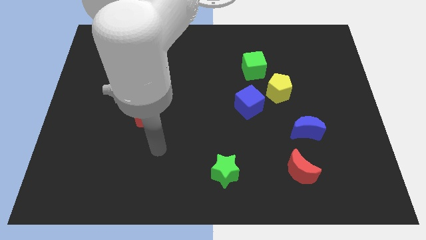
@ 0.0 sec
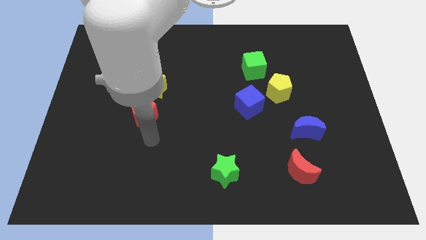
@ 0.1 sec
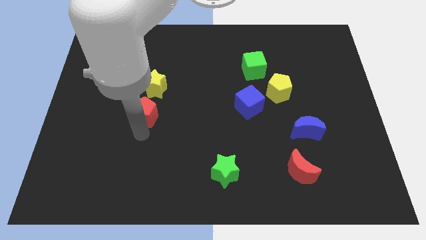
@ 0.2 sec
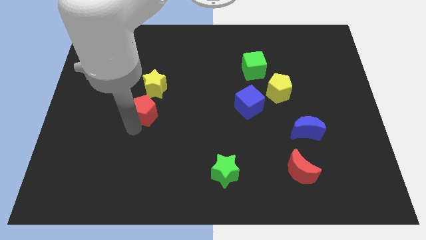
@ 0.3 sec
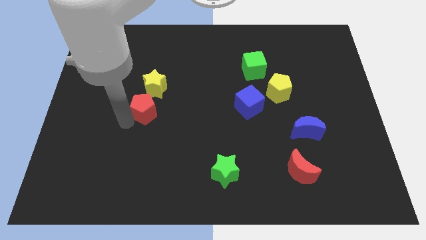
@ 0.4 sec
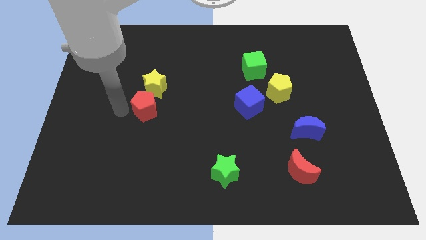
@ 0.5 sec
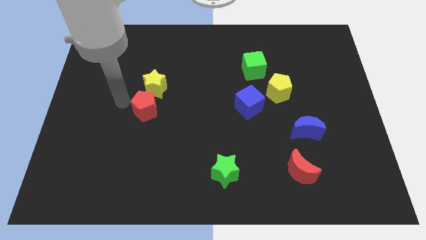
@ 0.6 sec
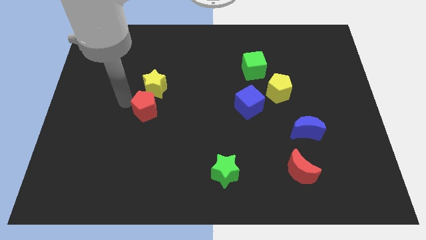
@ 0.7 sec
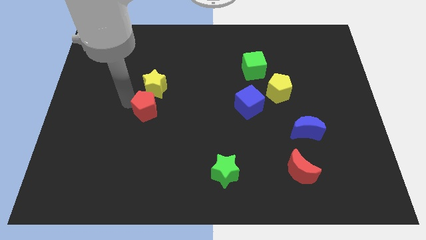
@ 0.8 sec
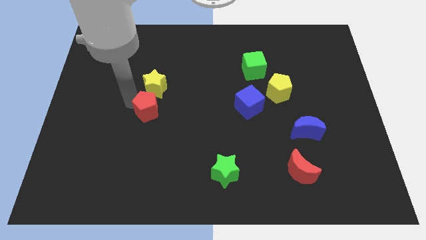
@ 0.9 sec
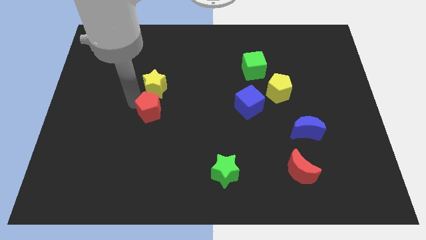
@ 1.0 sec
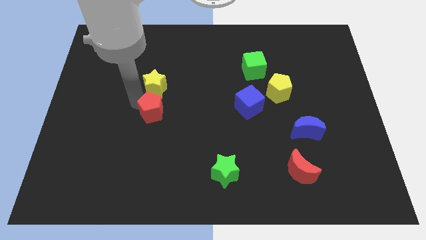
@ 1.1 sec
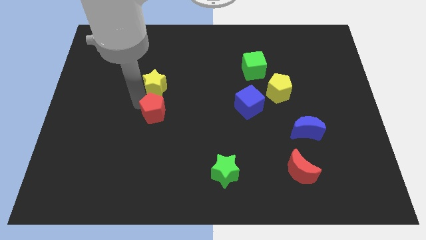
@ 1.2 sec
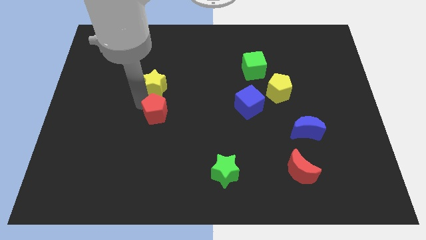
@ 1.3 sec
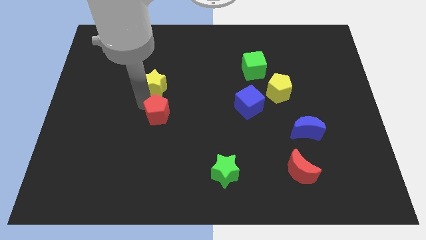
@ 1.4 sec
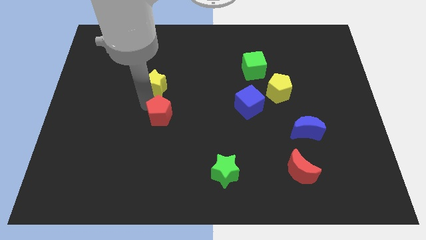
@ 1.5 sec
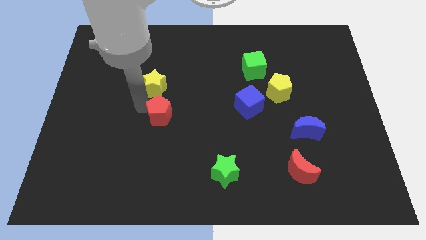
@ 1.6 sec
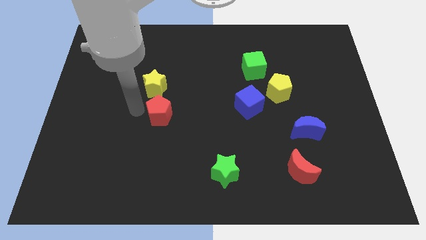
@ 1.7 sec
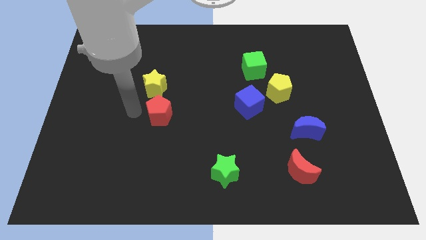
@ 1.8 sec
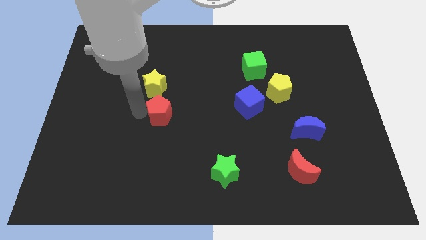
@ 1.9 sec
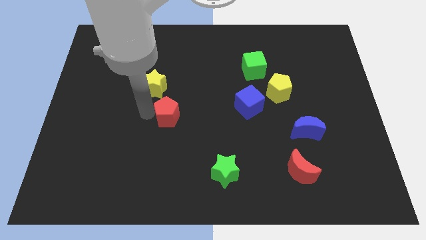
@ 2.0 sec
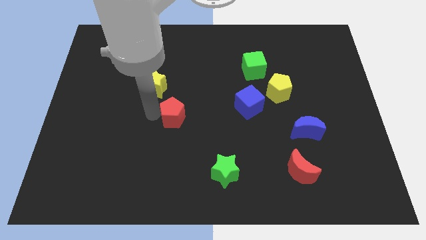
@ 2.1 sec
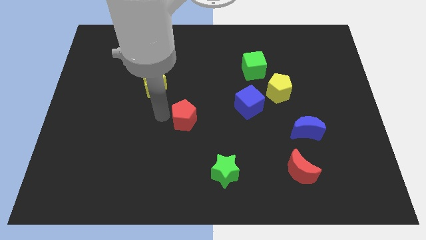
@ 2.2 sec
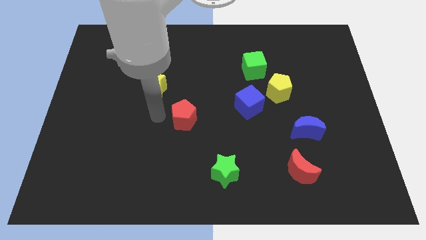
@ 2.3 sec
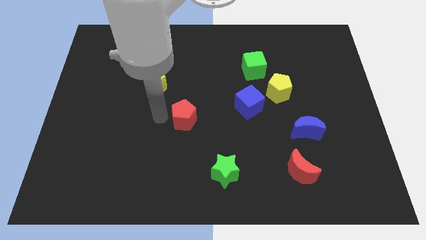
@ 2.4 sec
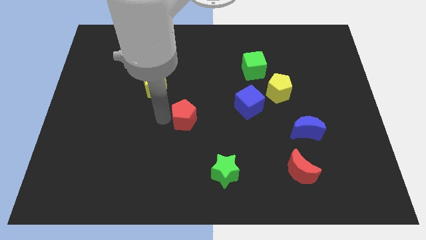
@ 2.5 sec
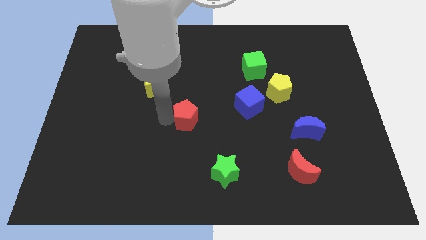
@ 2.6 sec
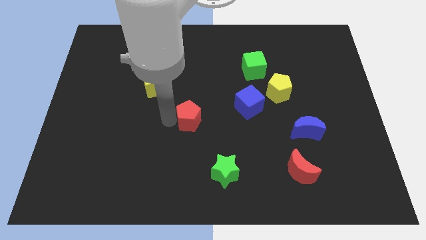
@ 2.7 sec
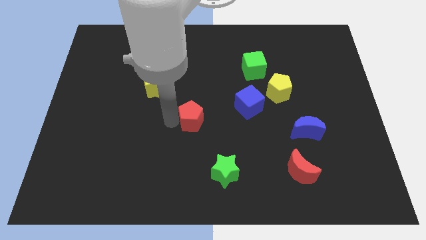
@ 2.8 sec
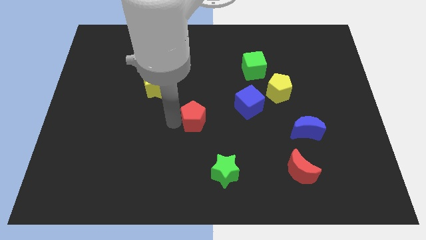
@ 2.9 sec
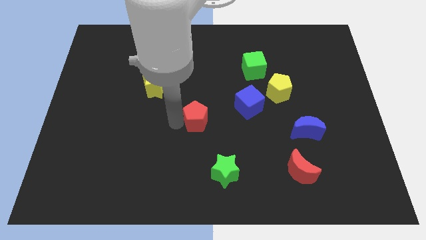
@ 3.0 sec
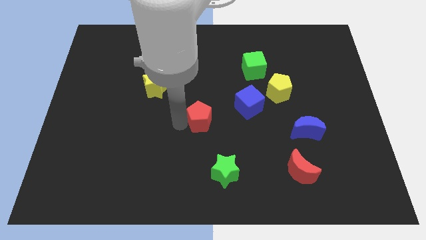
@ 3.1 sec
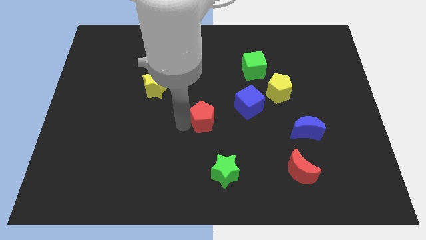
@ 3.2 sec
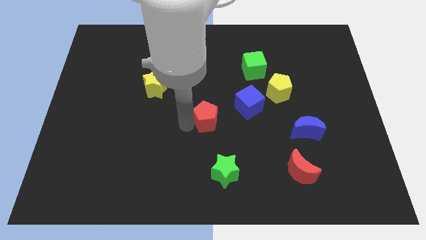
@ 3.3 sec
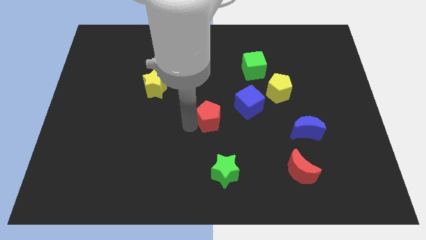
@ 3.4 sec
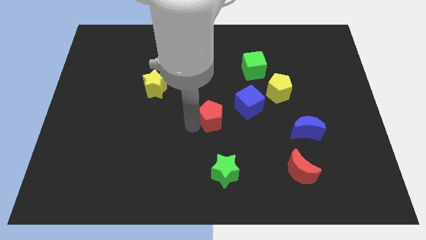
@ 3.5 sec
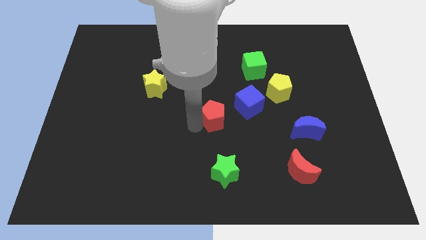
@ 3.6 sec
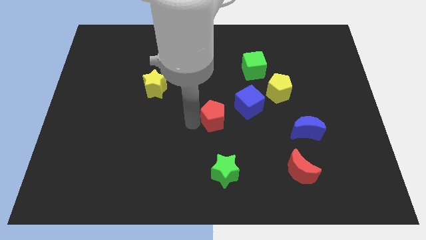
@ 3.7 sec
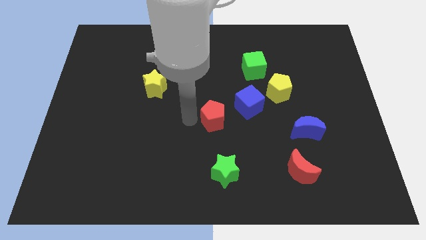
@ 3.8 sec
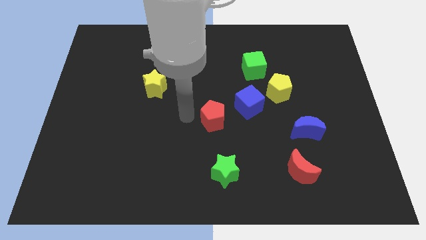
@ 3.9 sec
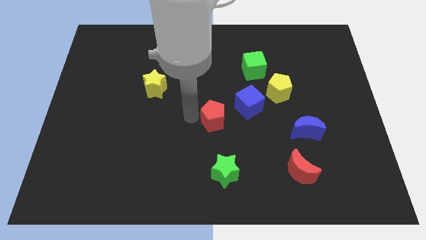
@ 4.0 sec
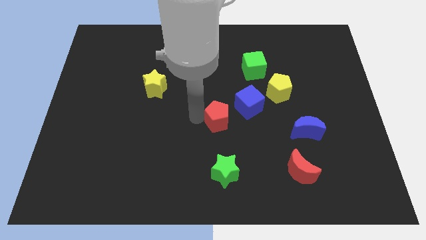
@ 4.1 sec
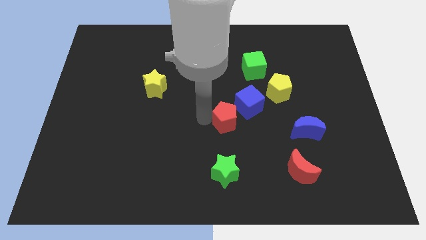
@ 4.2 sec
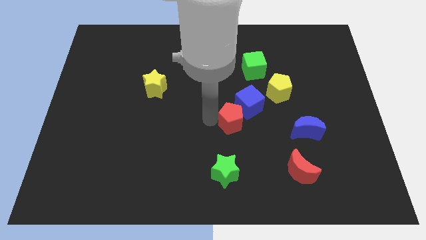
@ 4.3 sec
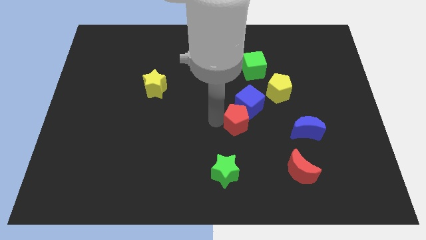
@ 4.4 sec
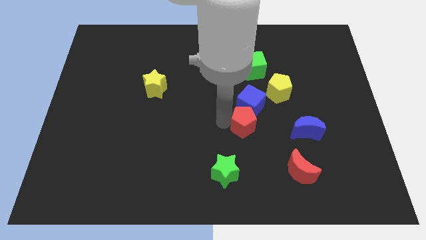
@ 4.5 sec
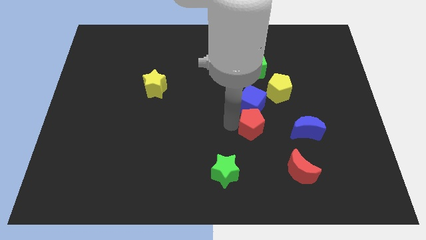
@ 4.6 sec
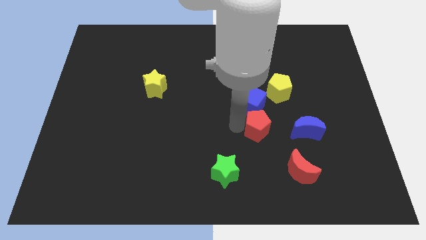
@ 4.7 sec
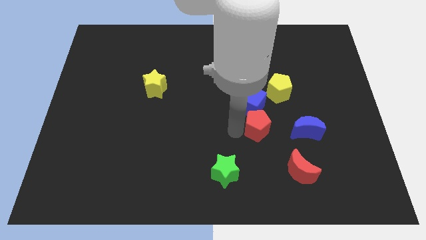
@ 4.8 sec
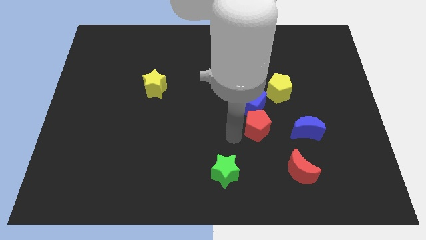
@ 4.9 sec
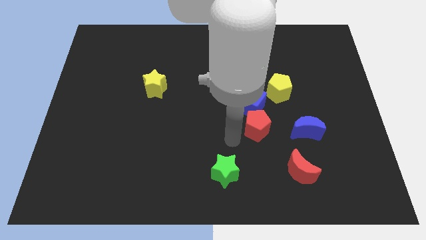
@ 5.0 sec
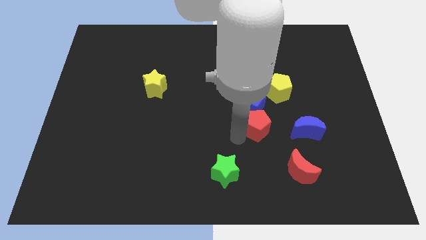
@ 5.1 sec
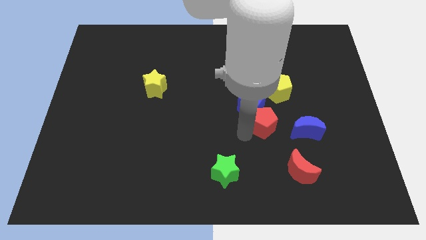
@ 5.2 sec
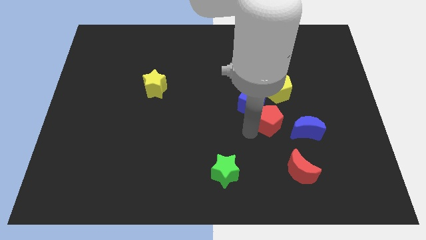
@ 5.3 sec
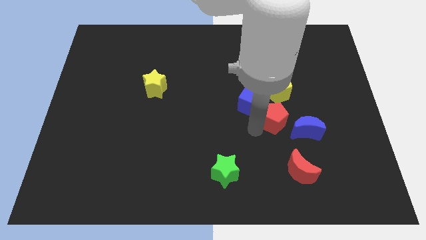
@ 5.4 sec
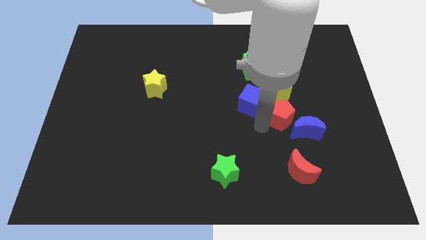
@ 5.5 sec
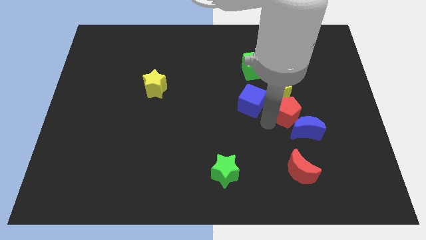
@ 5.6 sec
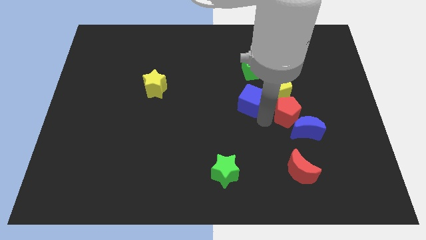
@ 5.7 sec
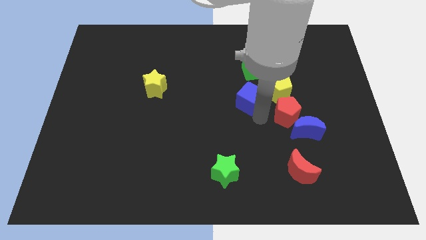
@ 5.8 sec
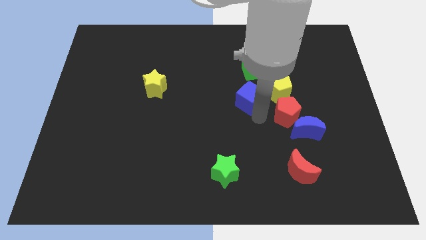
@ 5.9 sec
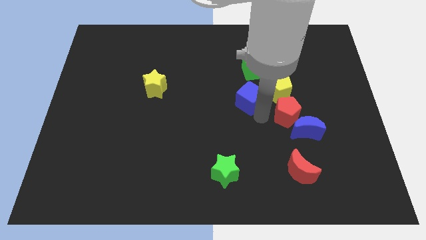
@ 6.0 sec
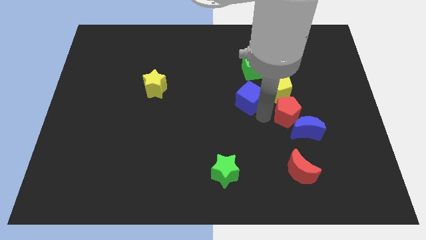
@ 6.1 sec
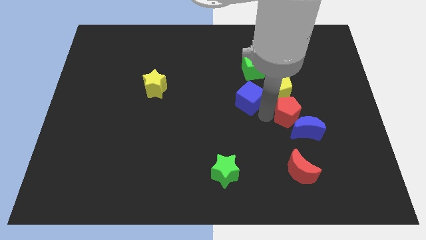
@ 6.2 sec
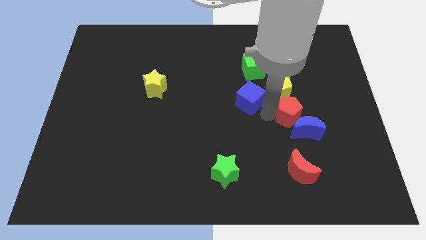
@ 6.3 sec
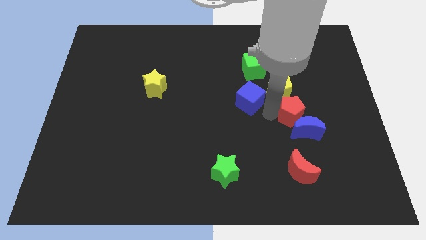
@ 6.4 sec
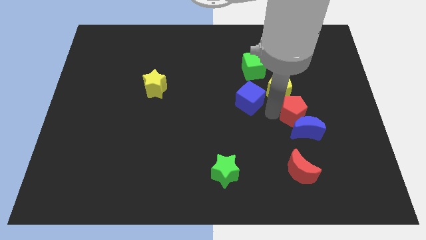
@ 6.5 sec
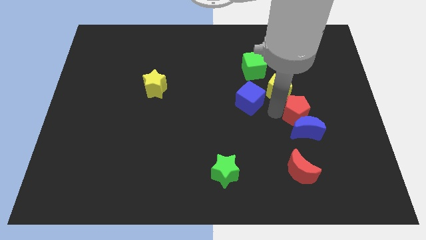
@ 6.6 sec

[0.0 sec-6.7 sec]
slide the red pentagon to the top right of the blue moon

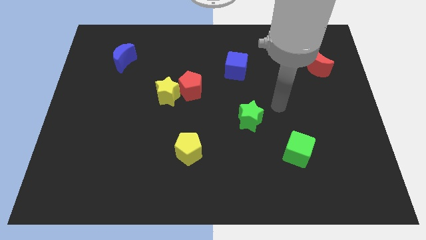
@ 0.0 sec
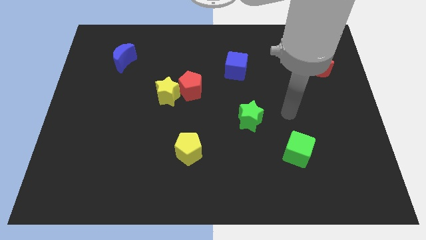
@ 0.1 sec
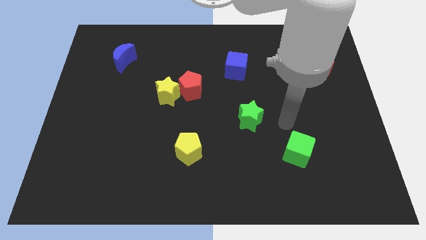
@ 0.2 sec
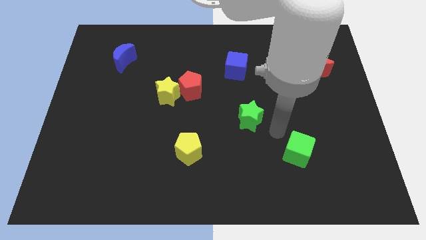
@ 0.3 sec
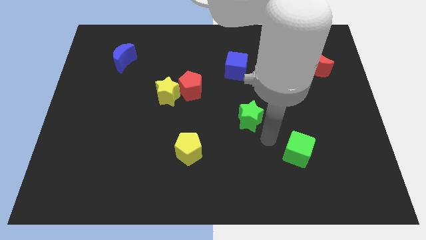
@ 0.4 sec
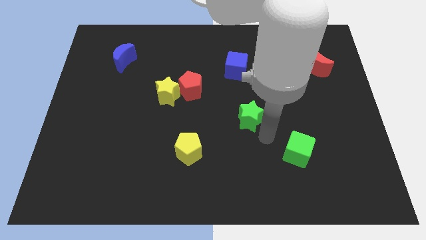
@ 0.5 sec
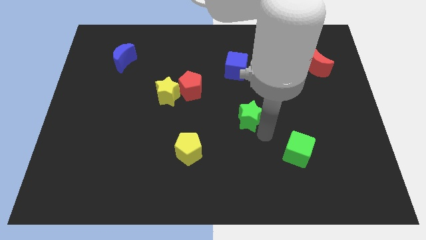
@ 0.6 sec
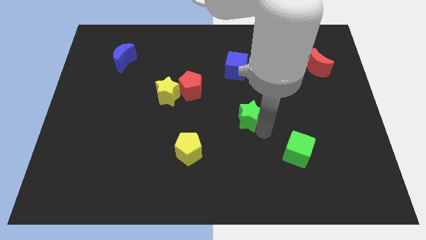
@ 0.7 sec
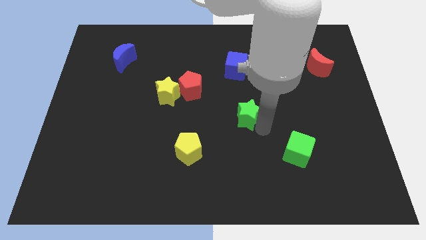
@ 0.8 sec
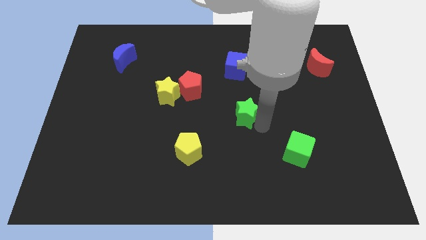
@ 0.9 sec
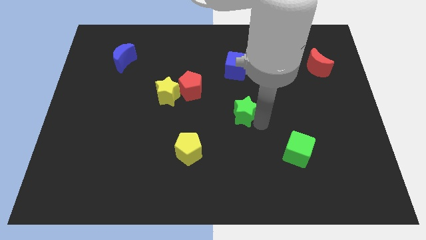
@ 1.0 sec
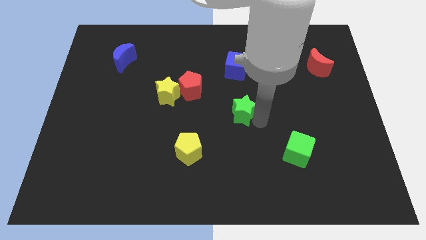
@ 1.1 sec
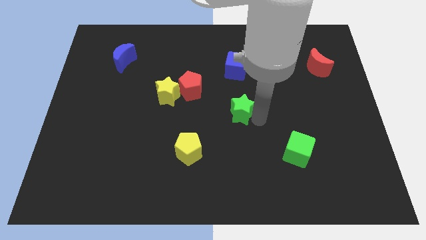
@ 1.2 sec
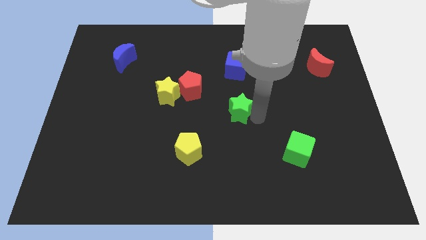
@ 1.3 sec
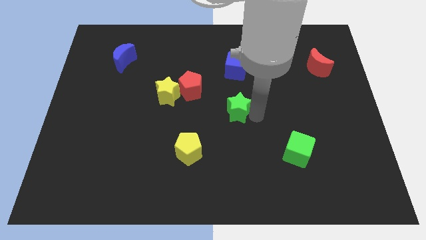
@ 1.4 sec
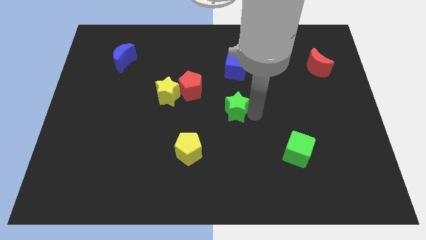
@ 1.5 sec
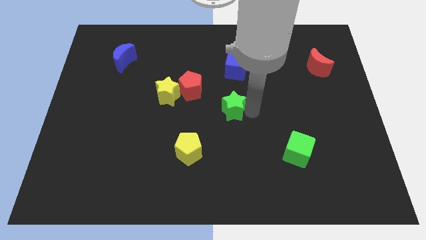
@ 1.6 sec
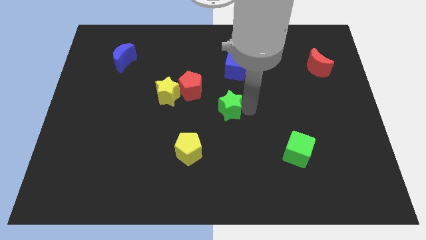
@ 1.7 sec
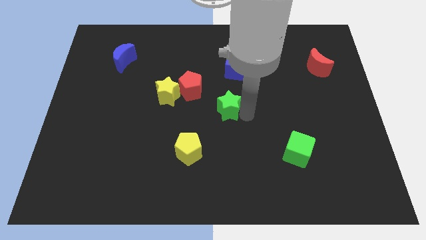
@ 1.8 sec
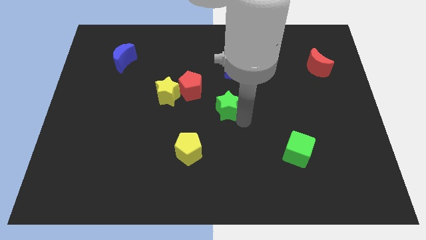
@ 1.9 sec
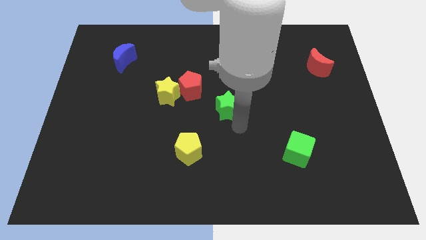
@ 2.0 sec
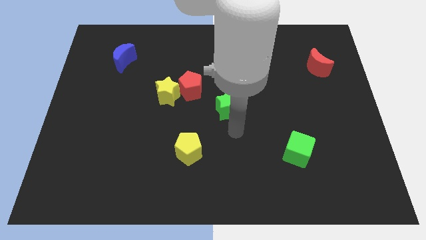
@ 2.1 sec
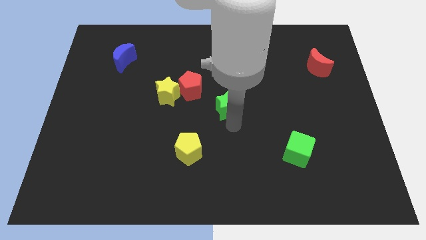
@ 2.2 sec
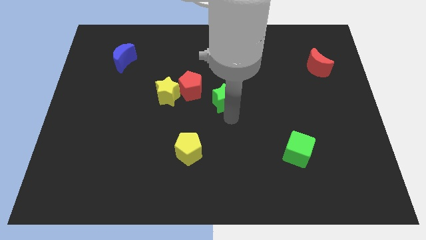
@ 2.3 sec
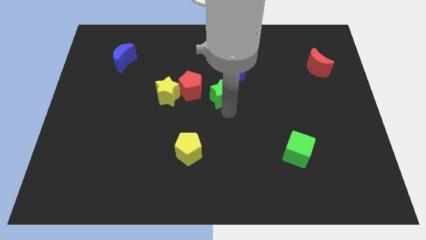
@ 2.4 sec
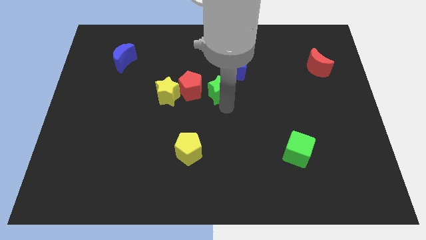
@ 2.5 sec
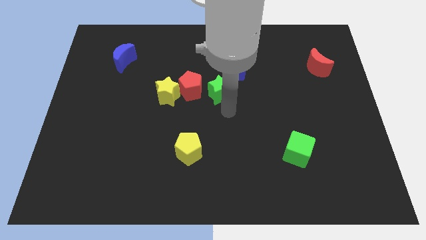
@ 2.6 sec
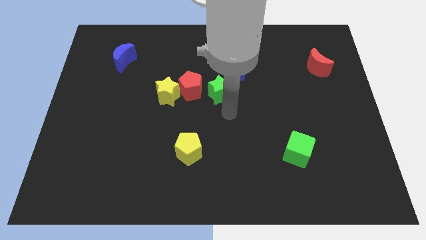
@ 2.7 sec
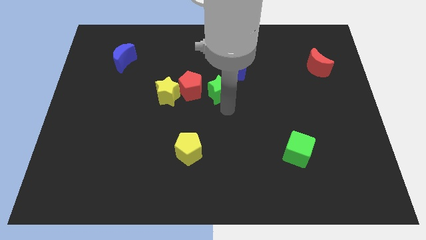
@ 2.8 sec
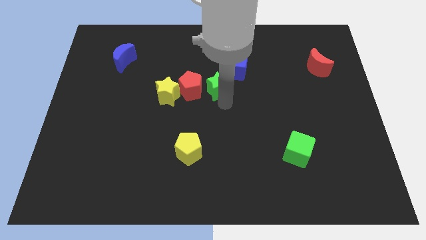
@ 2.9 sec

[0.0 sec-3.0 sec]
put the green star diagonally up and to the right of the red pentagon
